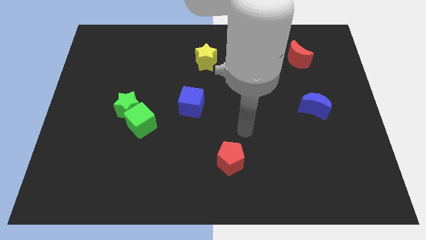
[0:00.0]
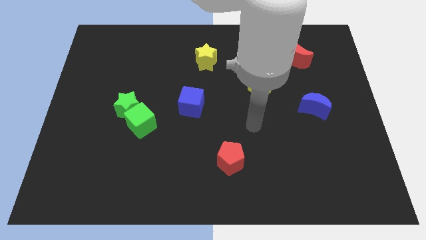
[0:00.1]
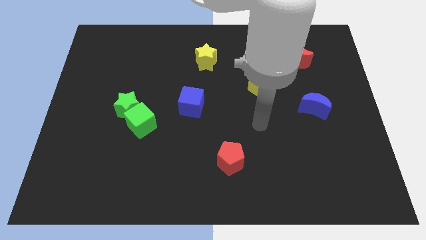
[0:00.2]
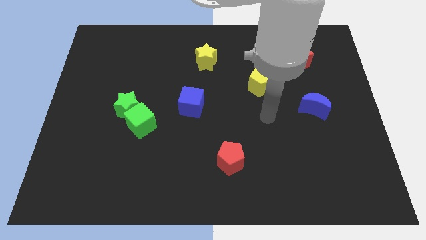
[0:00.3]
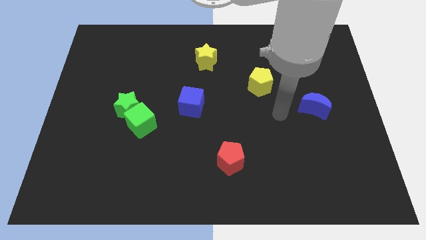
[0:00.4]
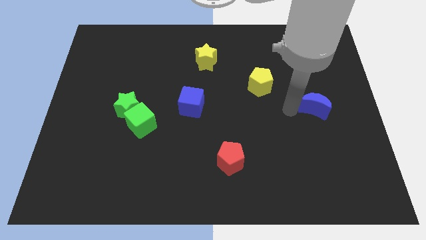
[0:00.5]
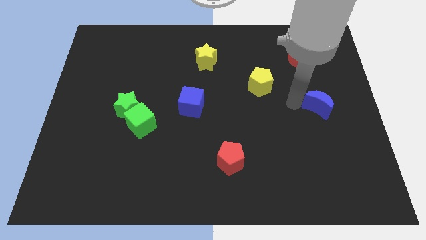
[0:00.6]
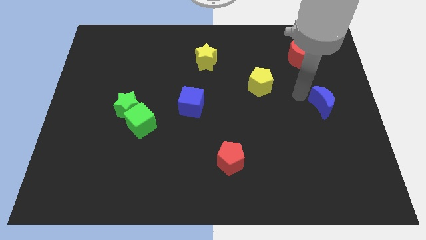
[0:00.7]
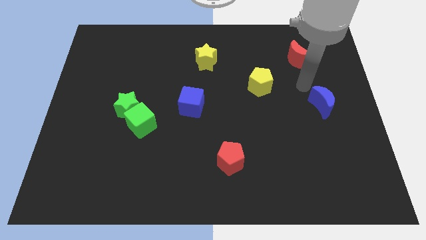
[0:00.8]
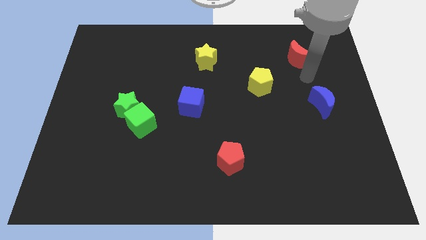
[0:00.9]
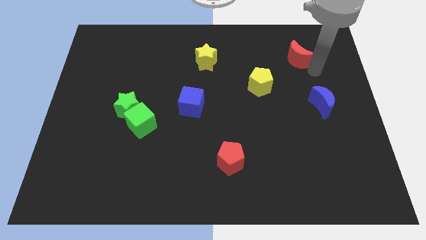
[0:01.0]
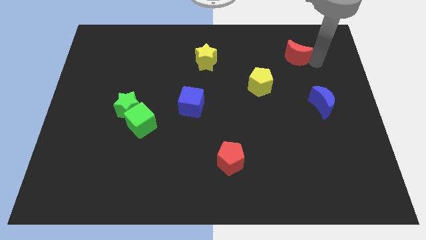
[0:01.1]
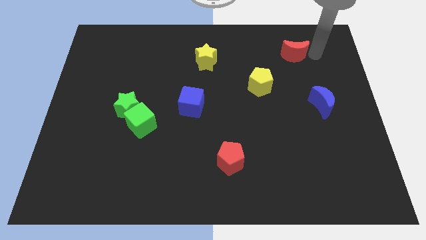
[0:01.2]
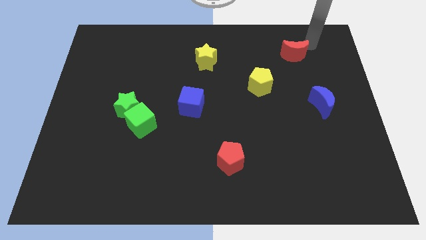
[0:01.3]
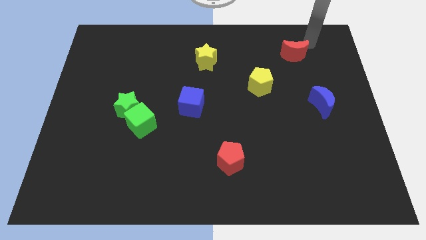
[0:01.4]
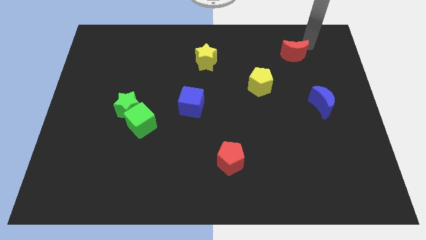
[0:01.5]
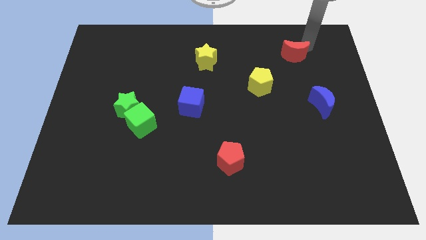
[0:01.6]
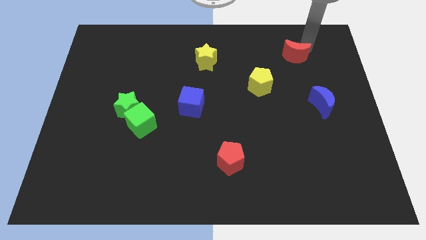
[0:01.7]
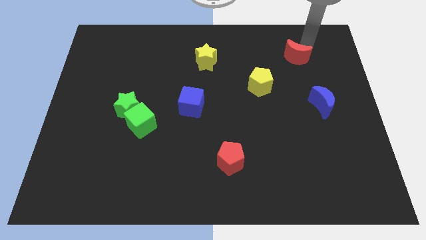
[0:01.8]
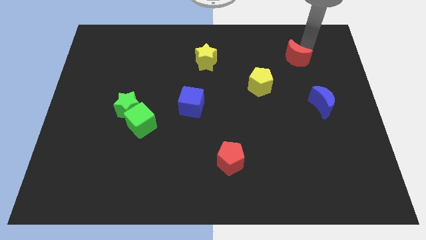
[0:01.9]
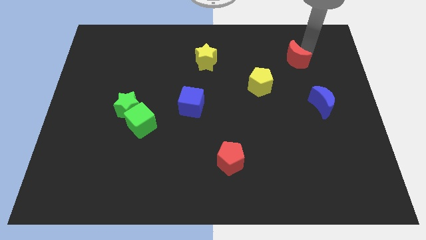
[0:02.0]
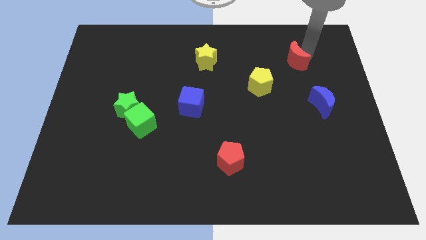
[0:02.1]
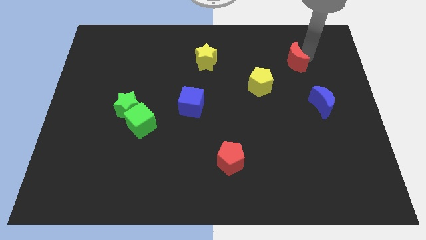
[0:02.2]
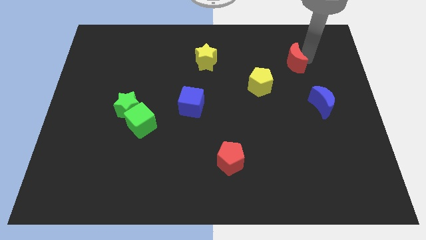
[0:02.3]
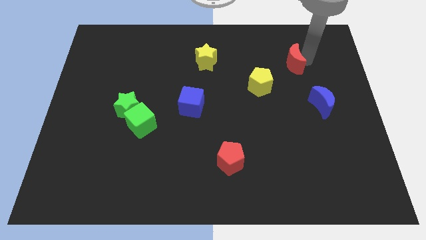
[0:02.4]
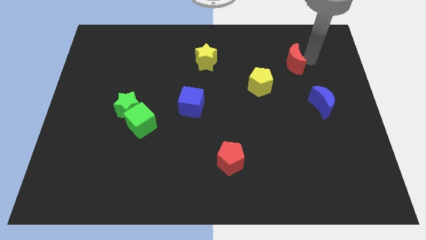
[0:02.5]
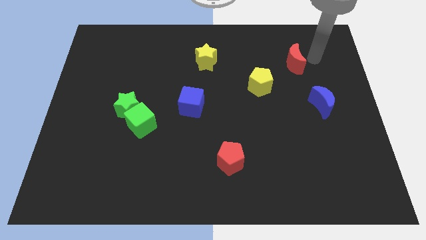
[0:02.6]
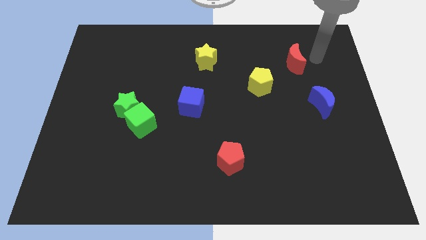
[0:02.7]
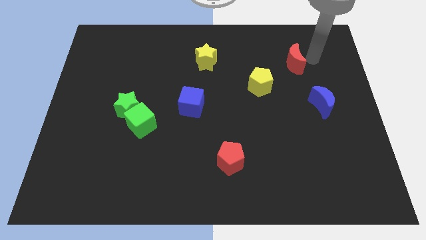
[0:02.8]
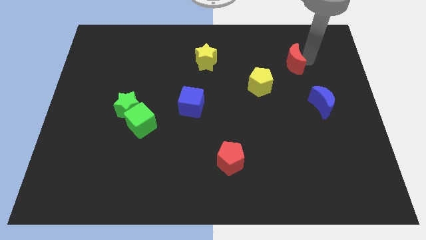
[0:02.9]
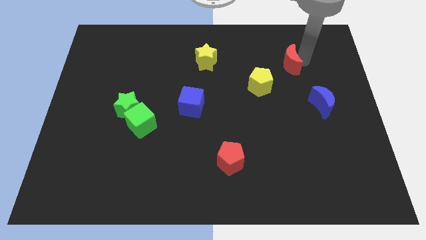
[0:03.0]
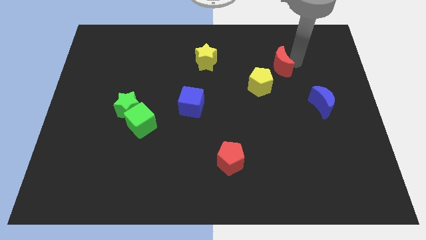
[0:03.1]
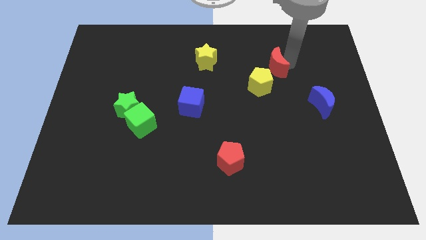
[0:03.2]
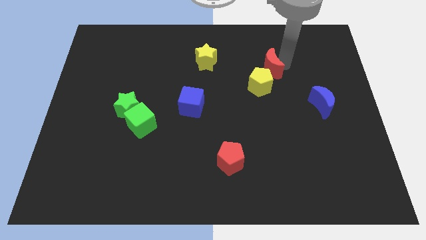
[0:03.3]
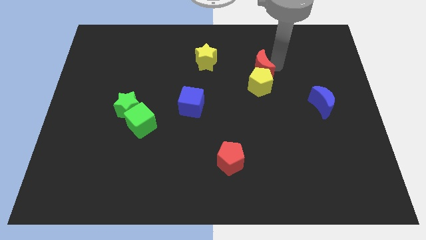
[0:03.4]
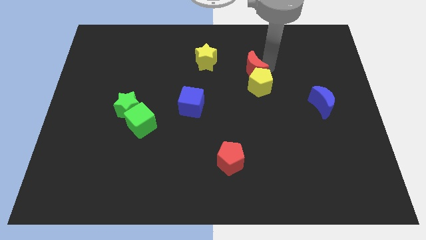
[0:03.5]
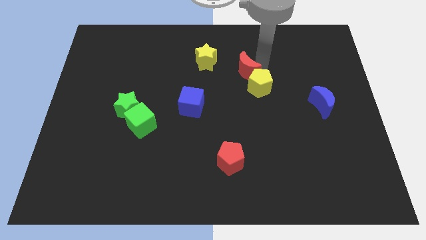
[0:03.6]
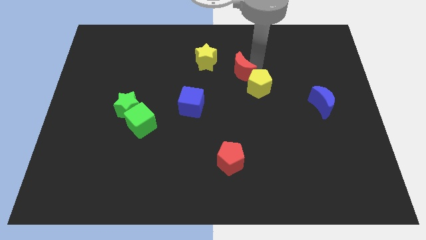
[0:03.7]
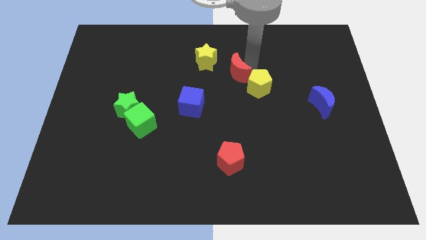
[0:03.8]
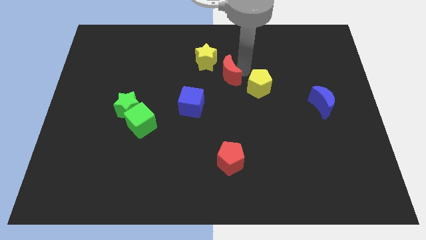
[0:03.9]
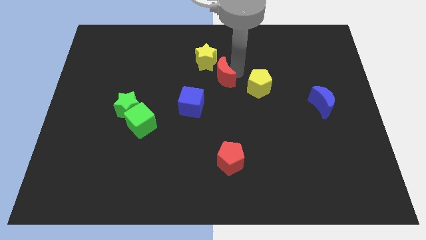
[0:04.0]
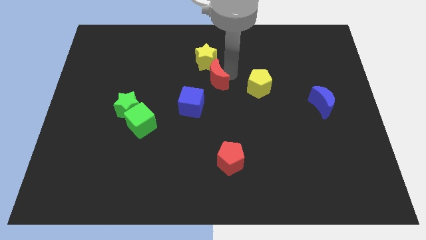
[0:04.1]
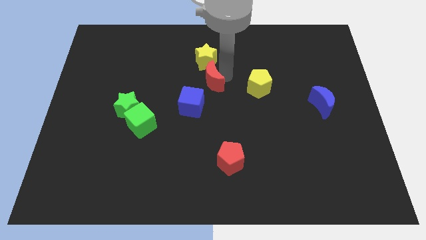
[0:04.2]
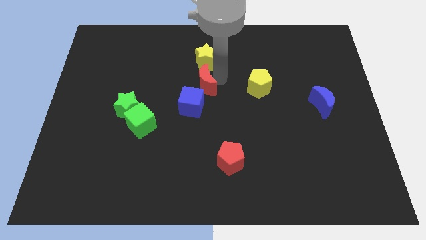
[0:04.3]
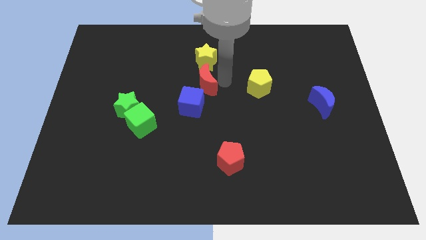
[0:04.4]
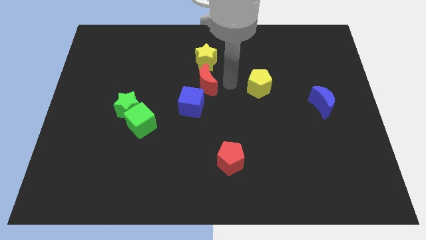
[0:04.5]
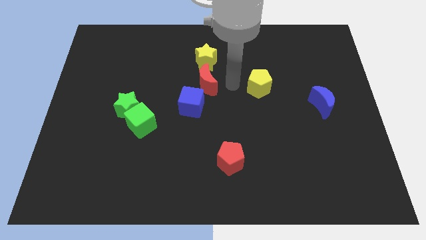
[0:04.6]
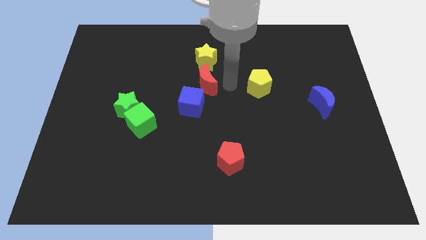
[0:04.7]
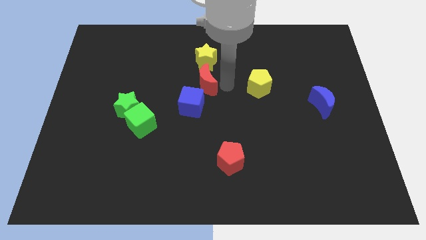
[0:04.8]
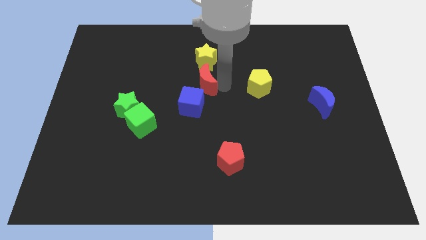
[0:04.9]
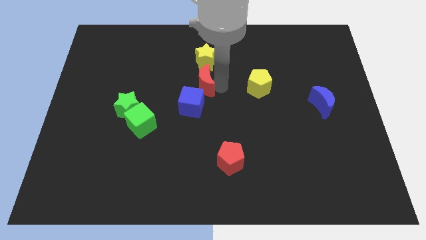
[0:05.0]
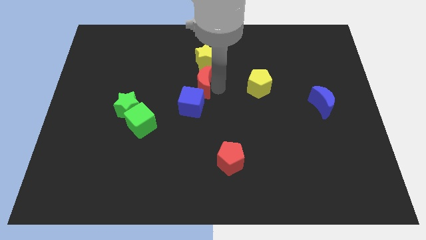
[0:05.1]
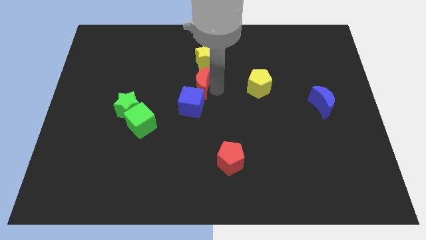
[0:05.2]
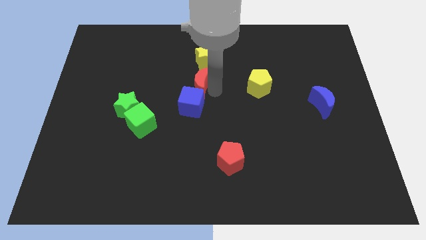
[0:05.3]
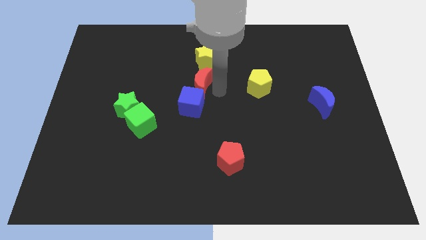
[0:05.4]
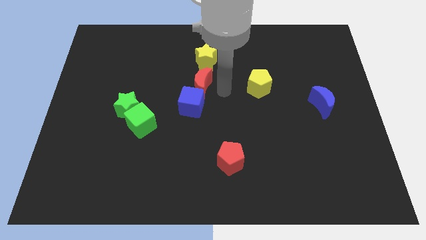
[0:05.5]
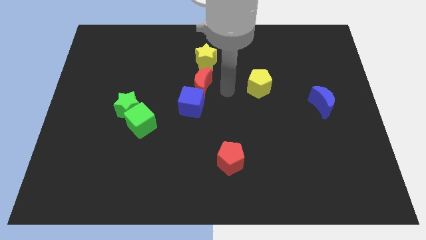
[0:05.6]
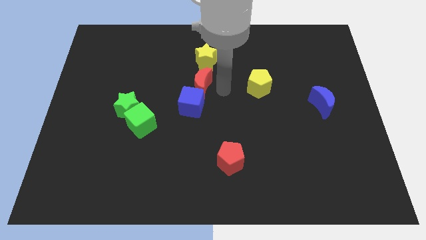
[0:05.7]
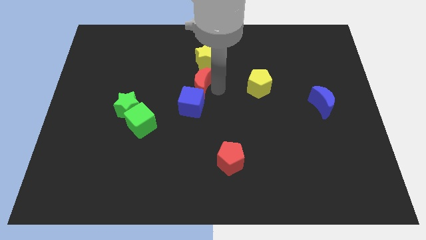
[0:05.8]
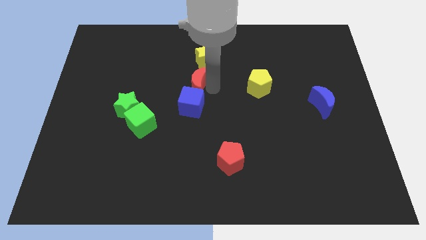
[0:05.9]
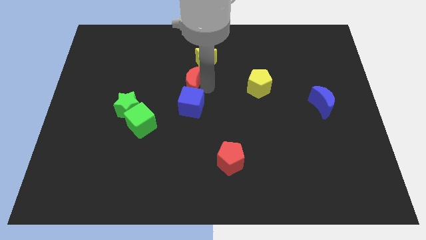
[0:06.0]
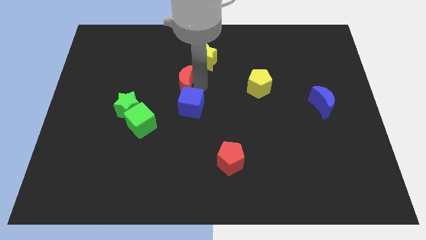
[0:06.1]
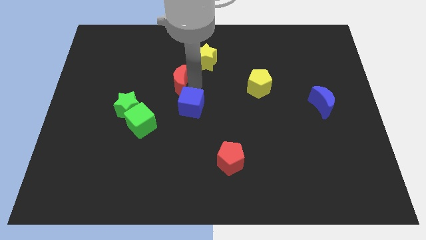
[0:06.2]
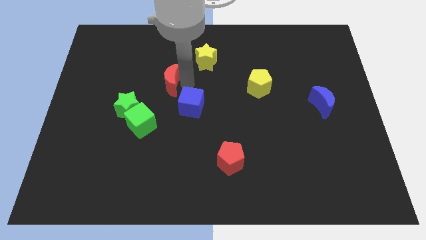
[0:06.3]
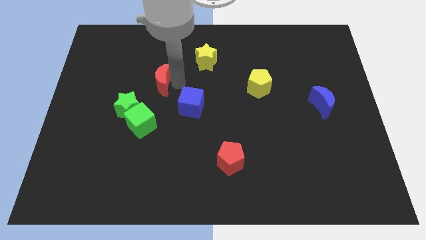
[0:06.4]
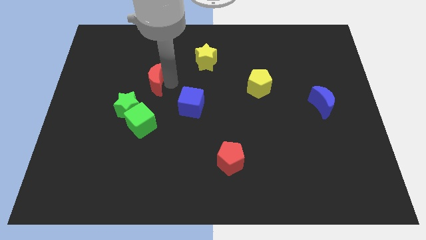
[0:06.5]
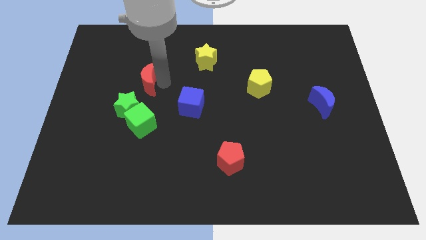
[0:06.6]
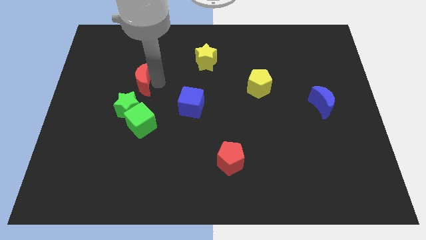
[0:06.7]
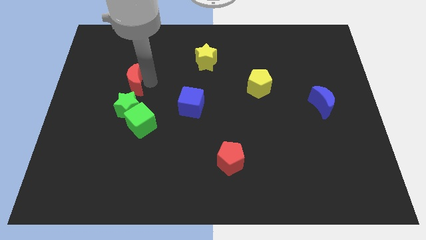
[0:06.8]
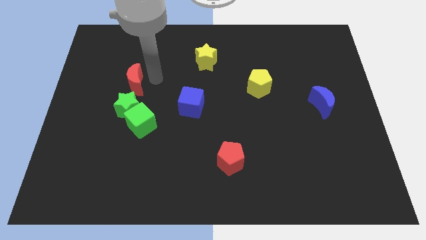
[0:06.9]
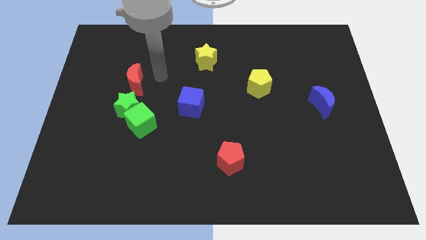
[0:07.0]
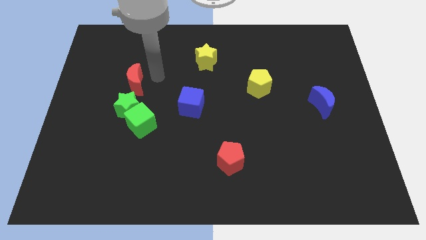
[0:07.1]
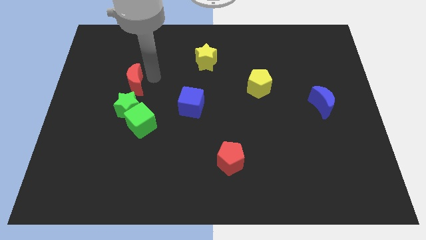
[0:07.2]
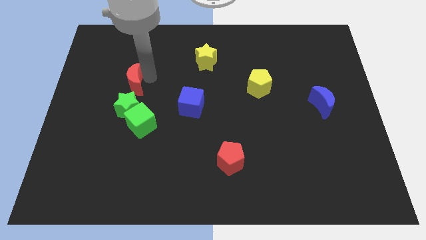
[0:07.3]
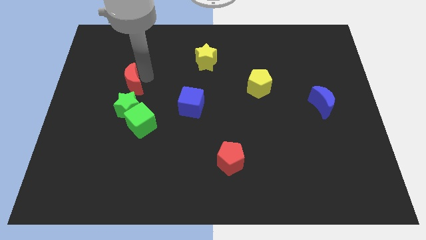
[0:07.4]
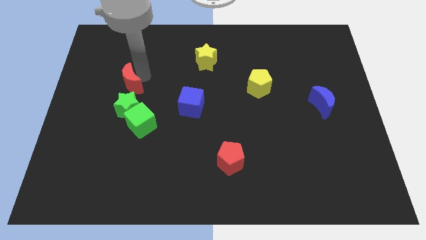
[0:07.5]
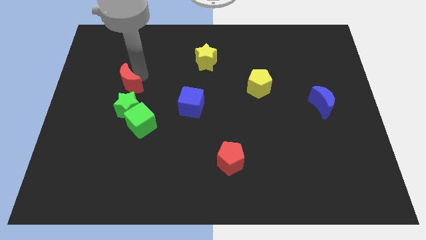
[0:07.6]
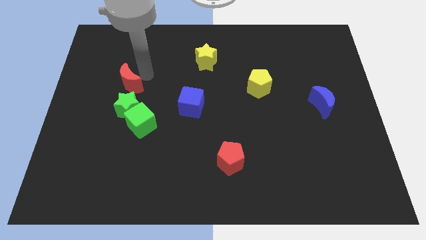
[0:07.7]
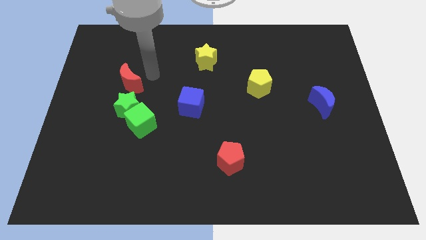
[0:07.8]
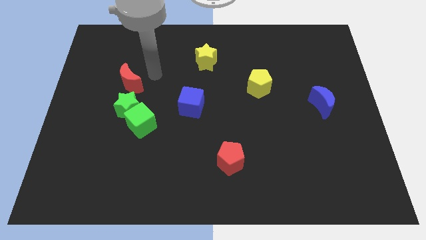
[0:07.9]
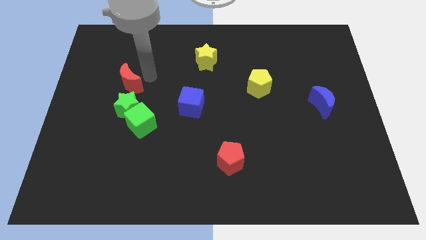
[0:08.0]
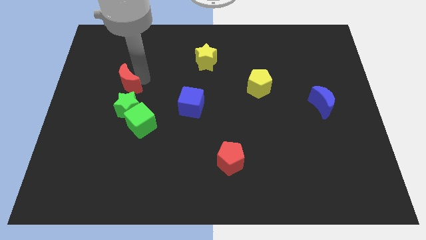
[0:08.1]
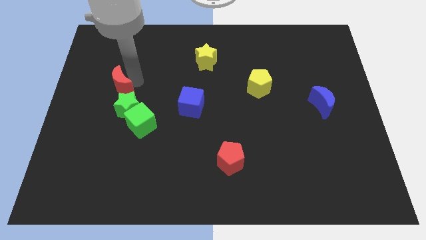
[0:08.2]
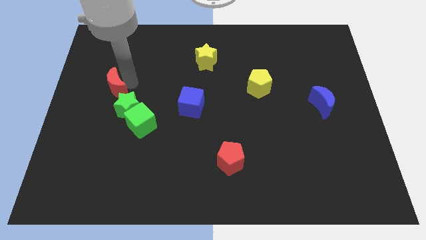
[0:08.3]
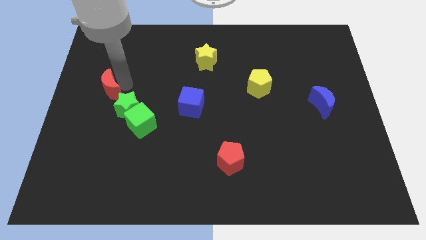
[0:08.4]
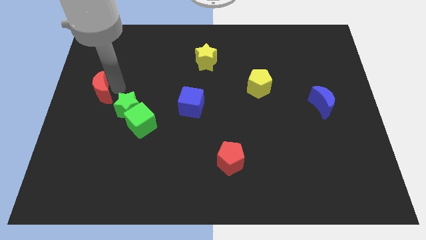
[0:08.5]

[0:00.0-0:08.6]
push the red moon to the left side of the board
